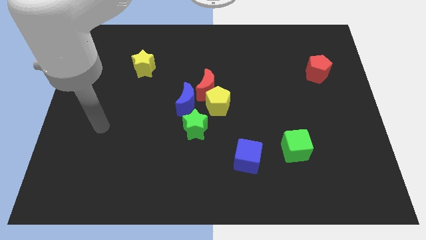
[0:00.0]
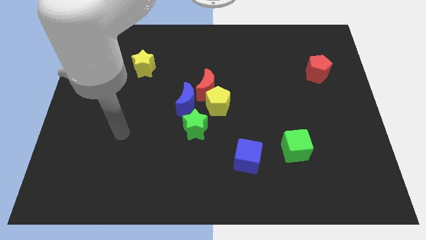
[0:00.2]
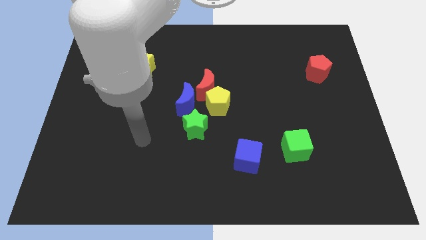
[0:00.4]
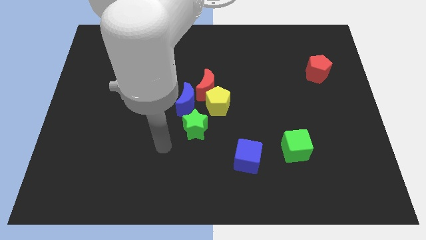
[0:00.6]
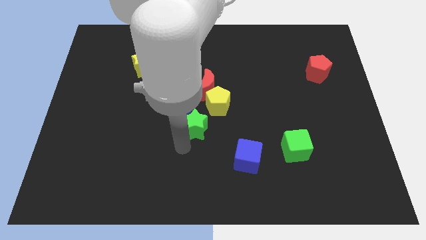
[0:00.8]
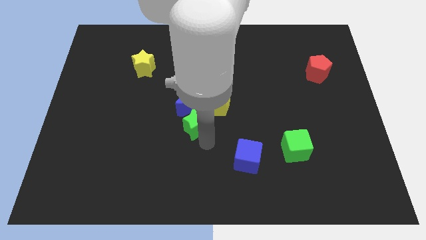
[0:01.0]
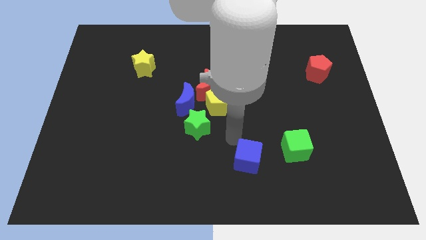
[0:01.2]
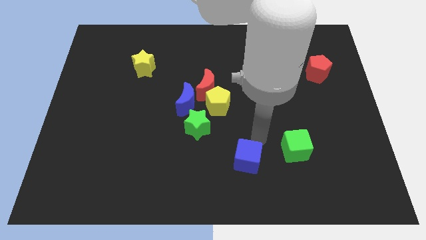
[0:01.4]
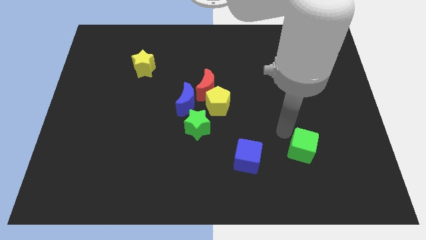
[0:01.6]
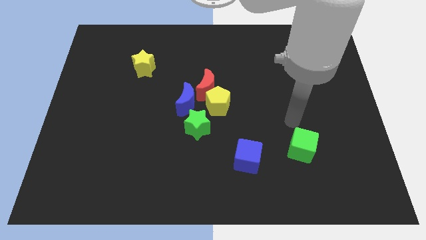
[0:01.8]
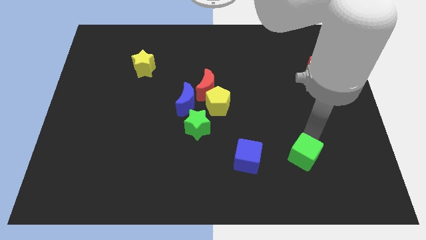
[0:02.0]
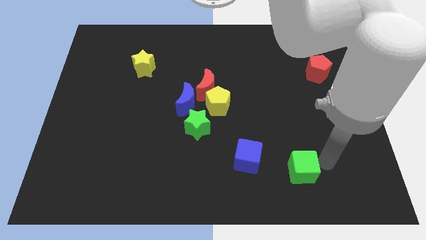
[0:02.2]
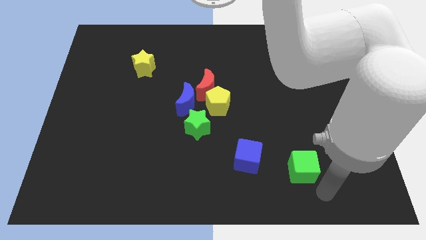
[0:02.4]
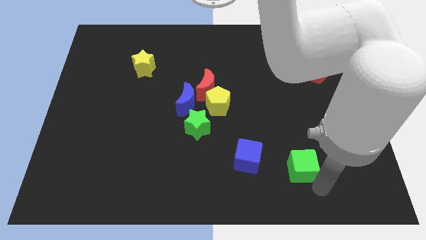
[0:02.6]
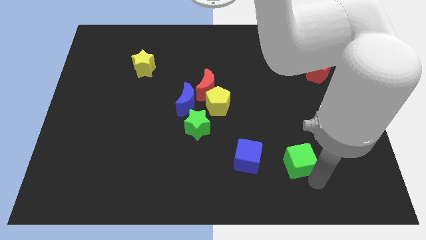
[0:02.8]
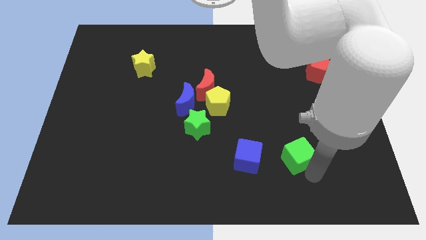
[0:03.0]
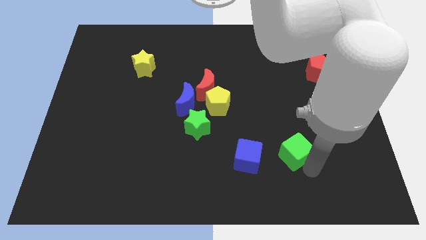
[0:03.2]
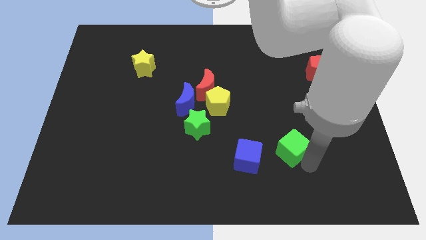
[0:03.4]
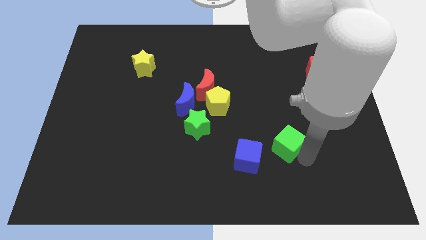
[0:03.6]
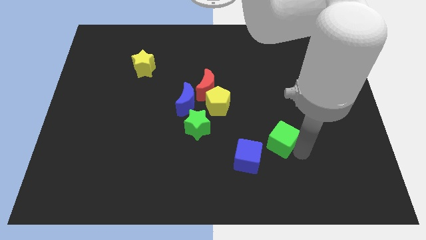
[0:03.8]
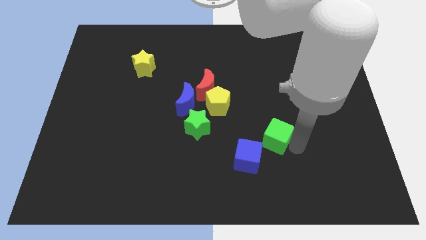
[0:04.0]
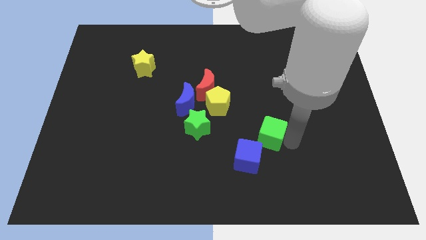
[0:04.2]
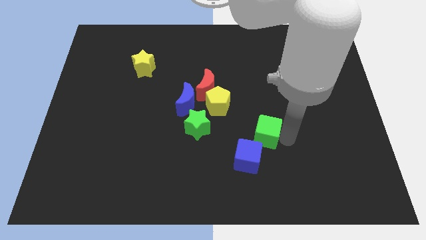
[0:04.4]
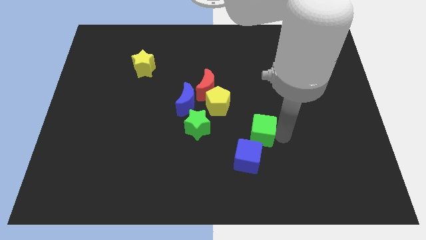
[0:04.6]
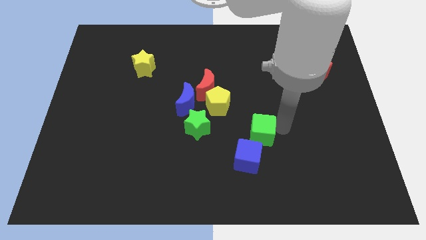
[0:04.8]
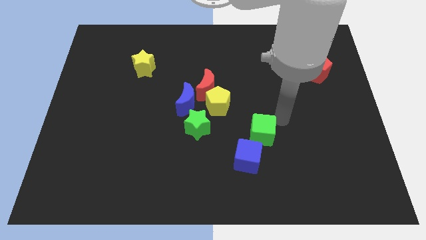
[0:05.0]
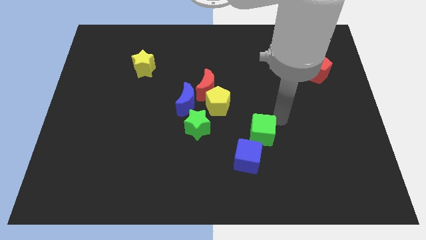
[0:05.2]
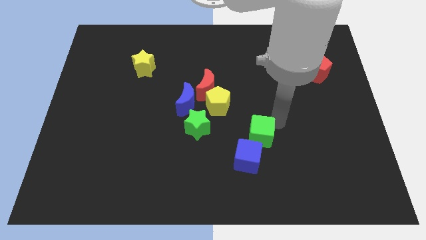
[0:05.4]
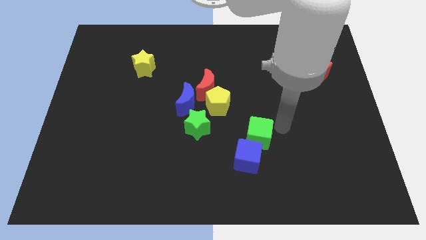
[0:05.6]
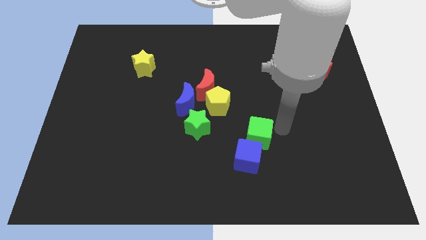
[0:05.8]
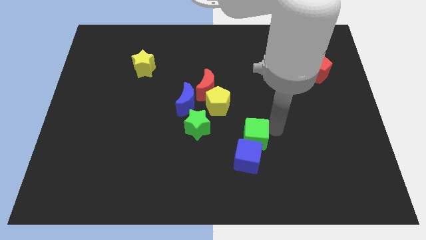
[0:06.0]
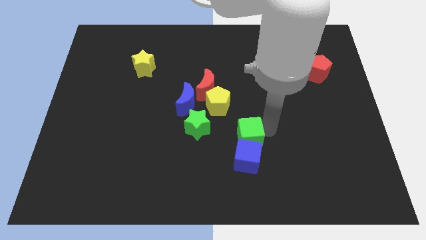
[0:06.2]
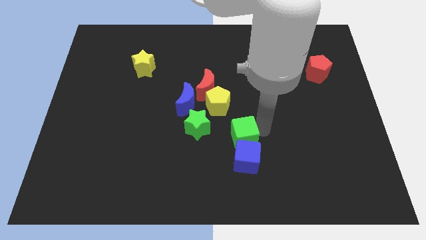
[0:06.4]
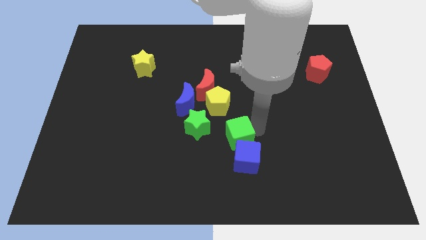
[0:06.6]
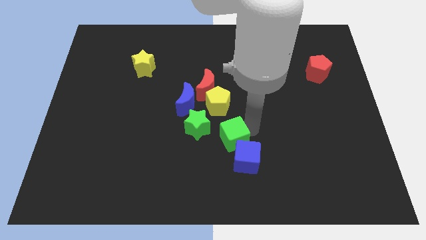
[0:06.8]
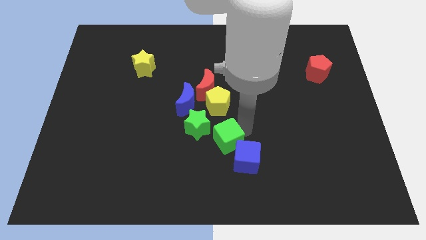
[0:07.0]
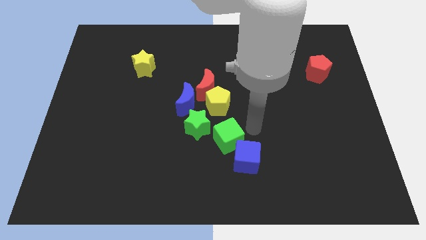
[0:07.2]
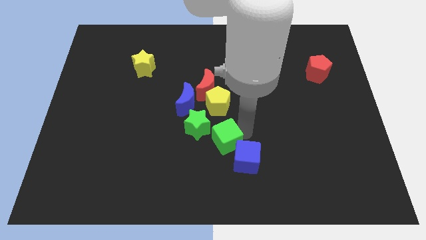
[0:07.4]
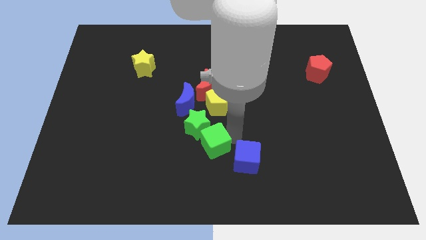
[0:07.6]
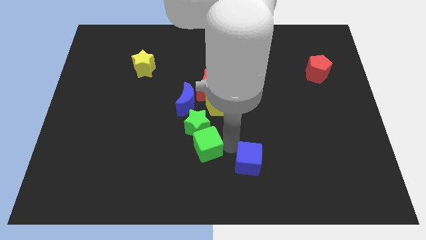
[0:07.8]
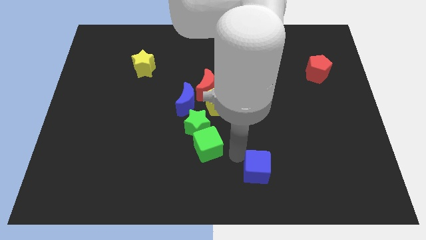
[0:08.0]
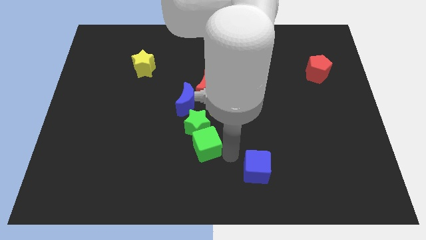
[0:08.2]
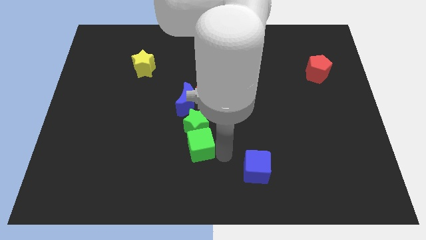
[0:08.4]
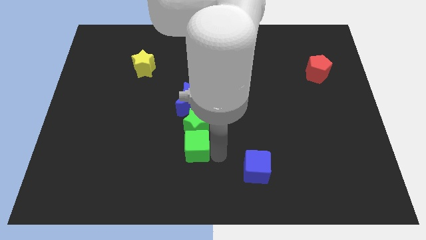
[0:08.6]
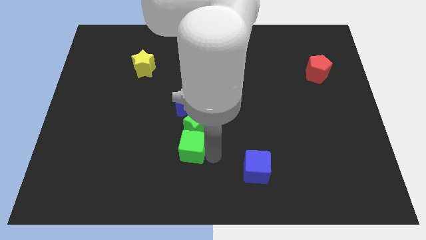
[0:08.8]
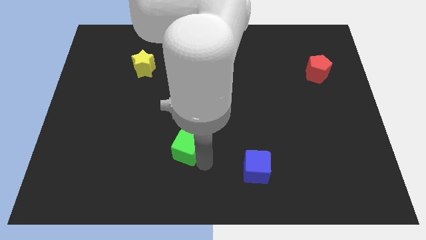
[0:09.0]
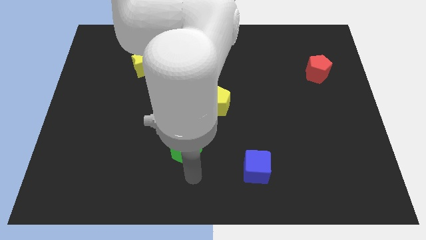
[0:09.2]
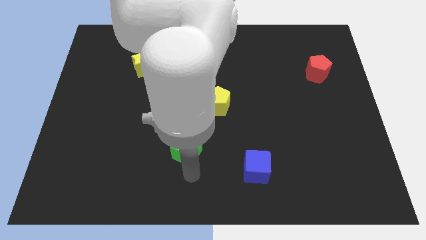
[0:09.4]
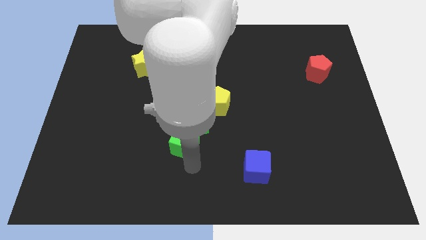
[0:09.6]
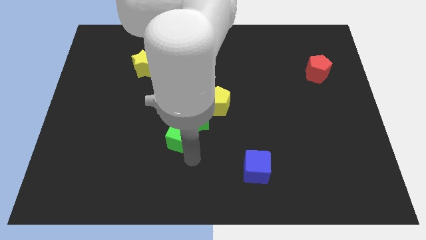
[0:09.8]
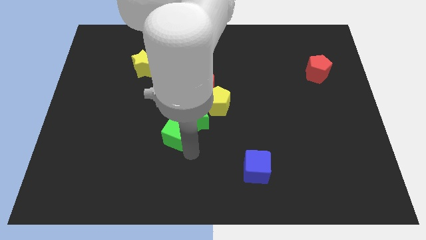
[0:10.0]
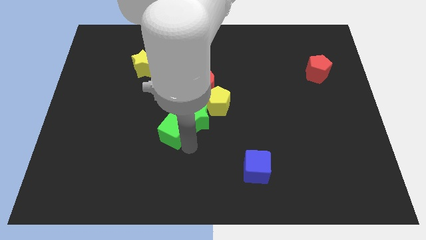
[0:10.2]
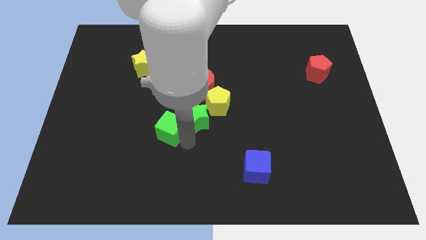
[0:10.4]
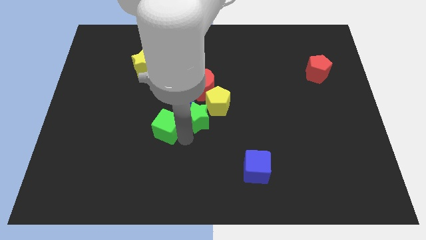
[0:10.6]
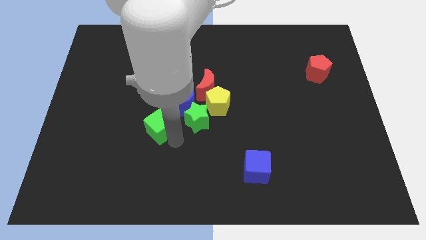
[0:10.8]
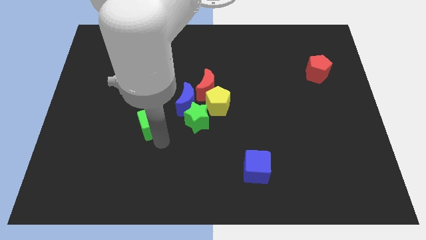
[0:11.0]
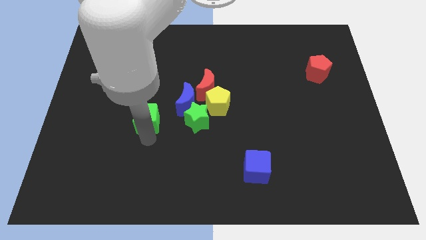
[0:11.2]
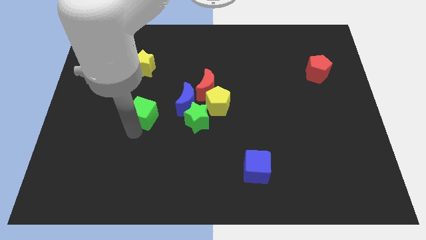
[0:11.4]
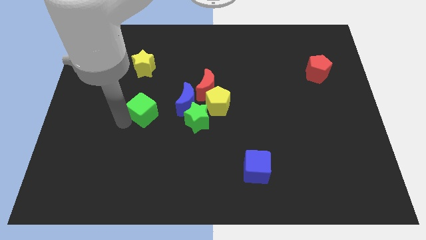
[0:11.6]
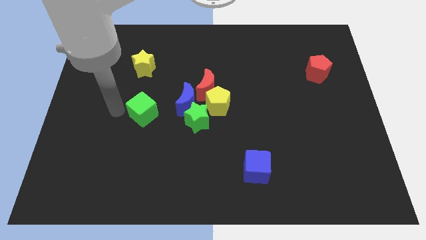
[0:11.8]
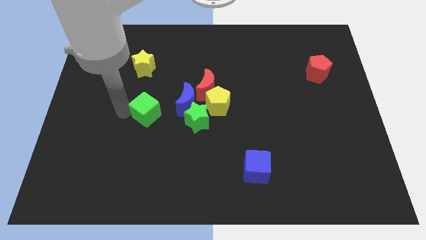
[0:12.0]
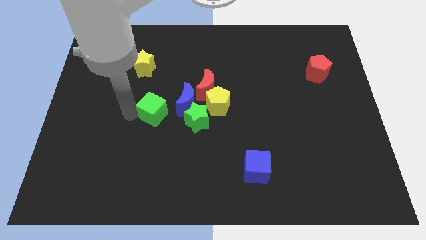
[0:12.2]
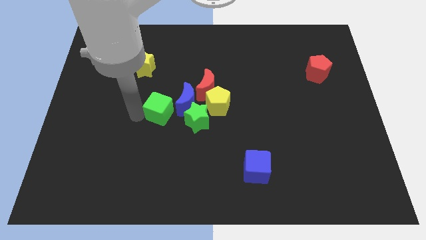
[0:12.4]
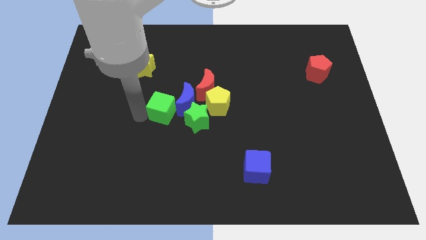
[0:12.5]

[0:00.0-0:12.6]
slide the green cube next to the blue moon
